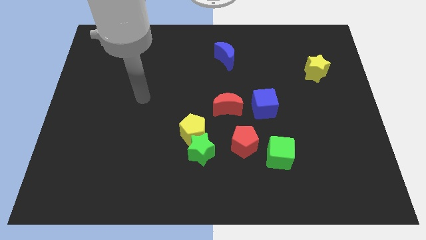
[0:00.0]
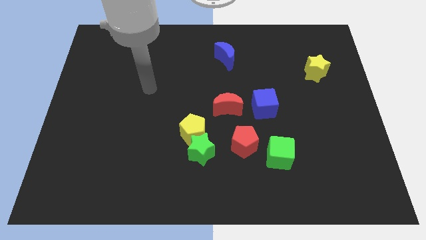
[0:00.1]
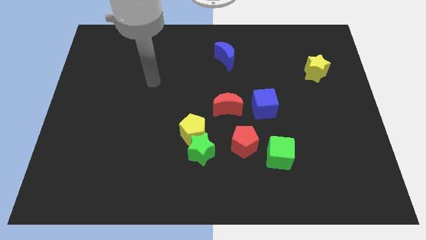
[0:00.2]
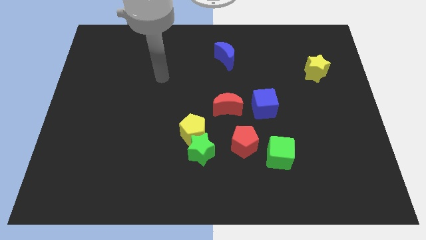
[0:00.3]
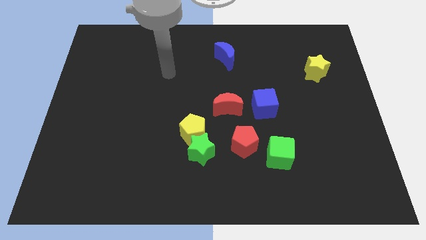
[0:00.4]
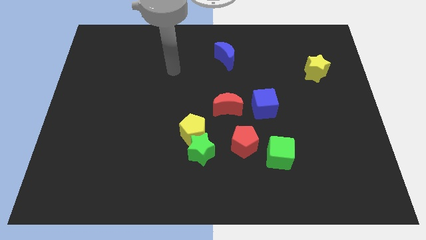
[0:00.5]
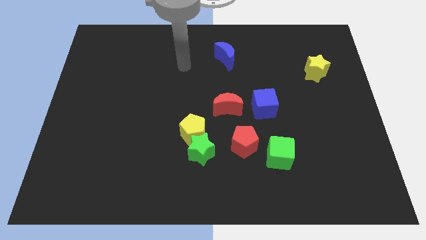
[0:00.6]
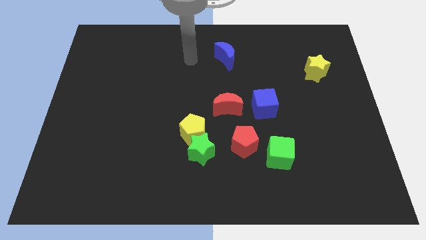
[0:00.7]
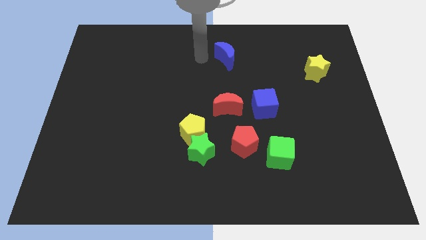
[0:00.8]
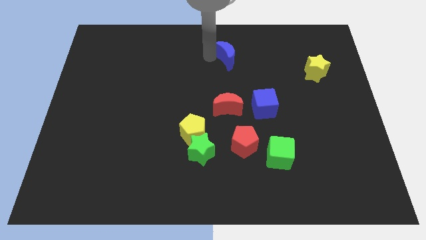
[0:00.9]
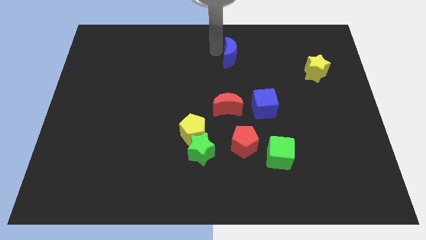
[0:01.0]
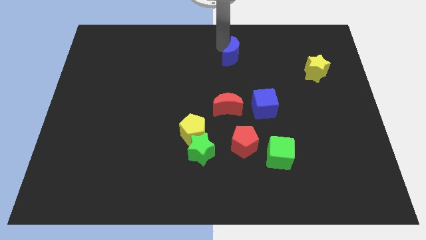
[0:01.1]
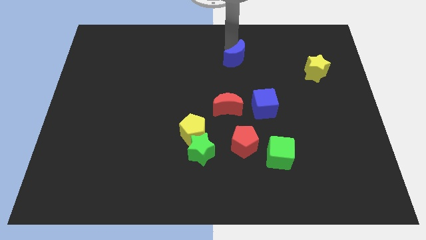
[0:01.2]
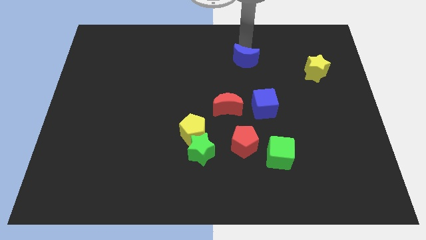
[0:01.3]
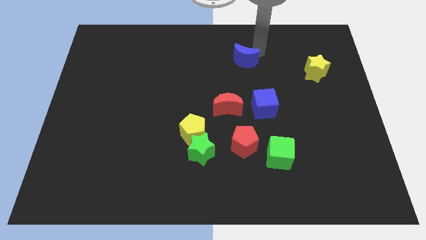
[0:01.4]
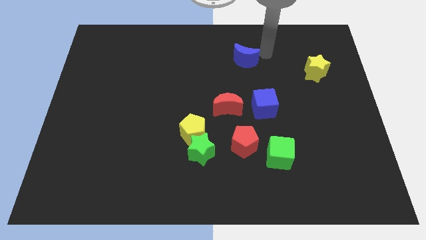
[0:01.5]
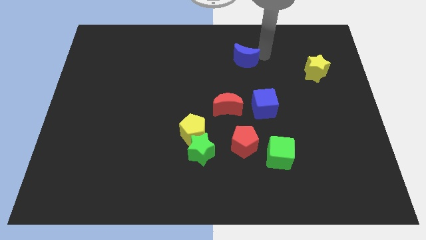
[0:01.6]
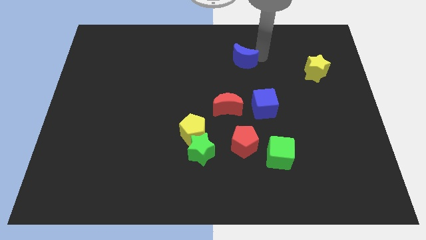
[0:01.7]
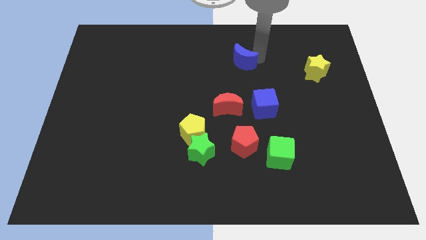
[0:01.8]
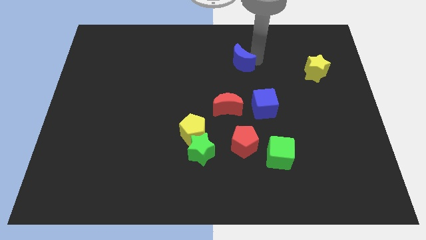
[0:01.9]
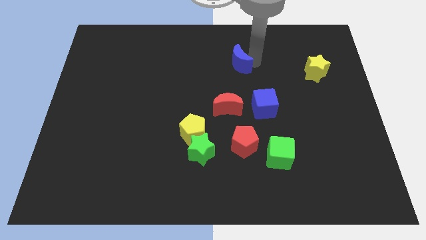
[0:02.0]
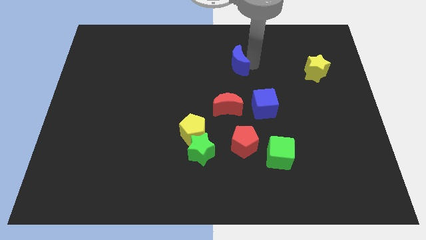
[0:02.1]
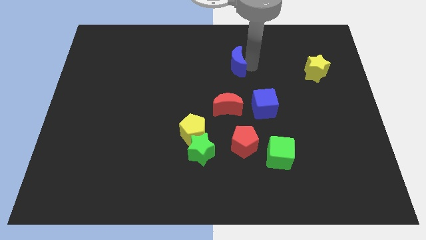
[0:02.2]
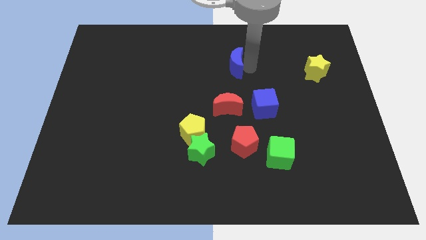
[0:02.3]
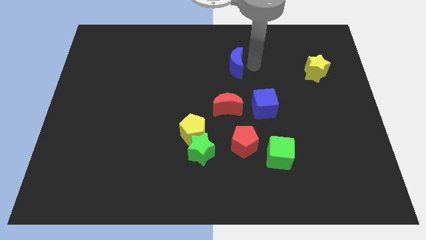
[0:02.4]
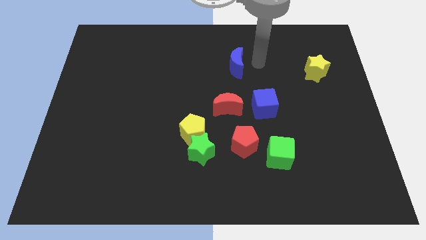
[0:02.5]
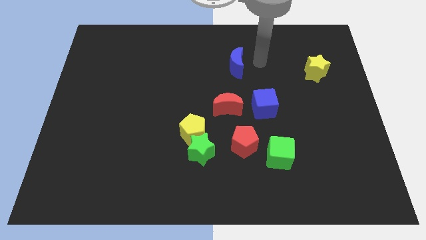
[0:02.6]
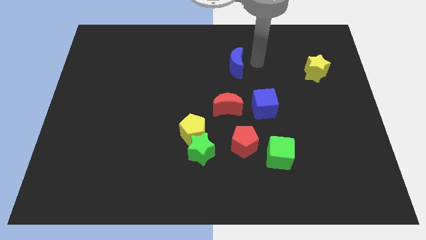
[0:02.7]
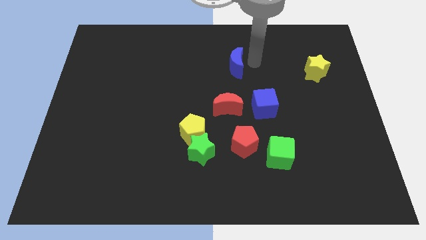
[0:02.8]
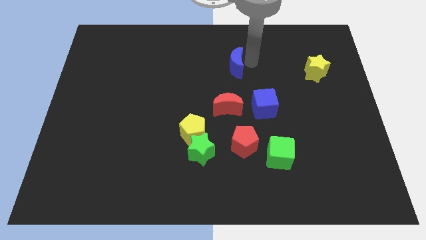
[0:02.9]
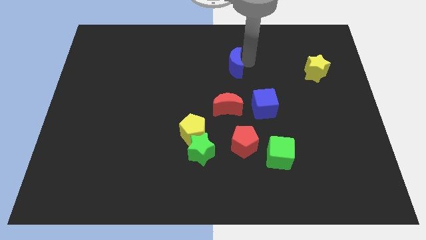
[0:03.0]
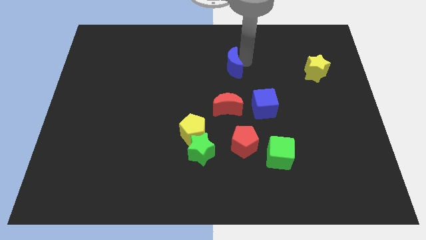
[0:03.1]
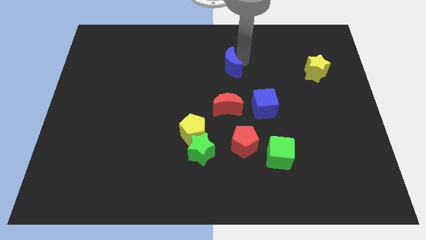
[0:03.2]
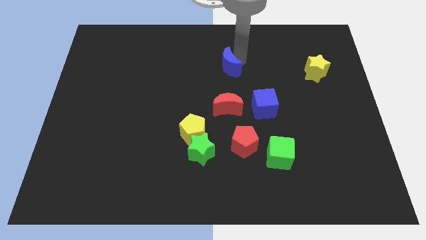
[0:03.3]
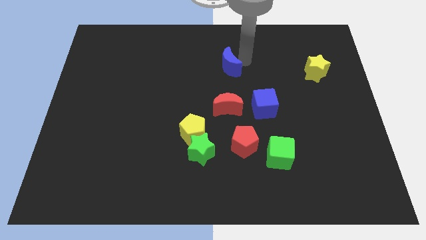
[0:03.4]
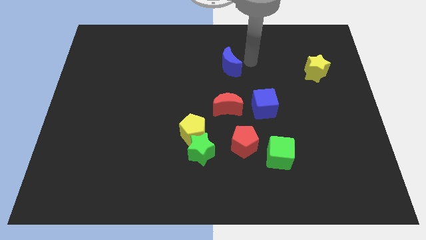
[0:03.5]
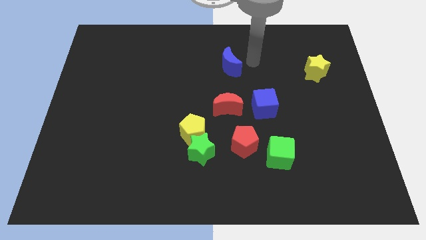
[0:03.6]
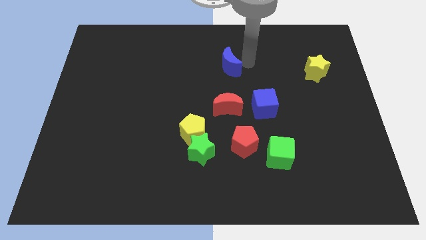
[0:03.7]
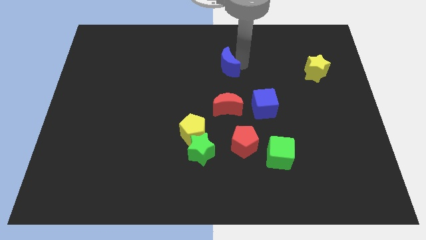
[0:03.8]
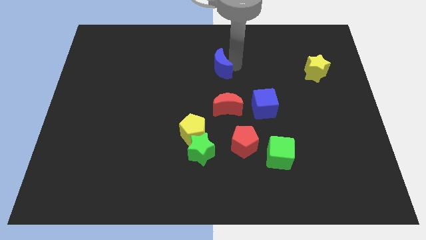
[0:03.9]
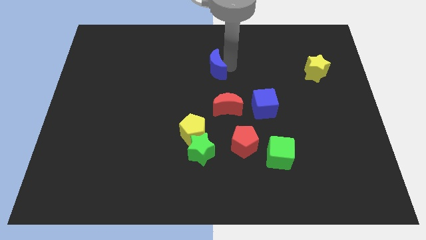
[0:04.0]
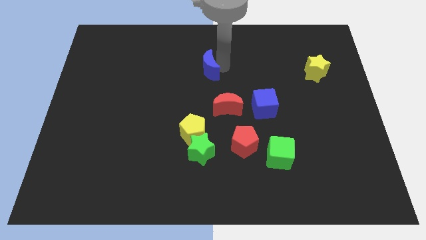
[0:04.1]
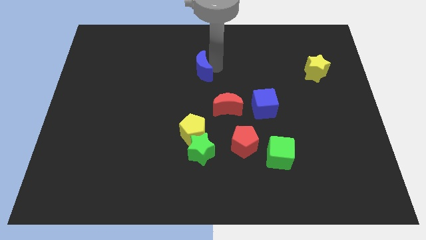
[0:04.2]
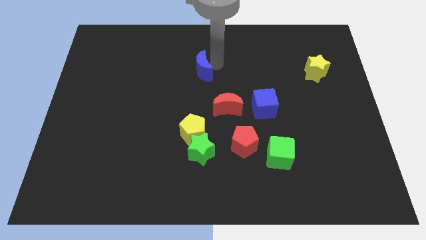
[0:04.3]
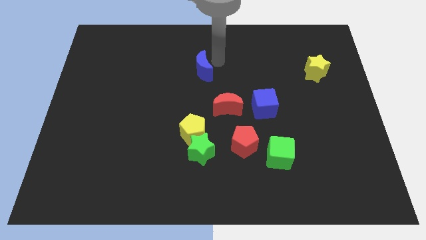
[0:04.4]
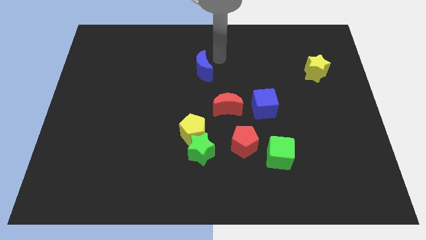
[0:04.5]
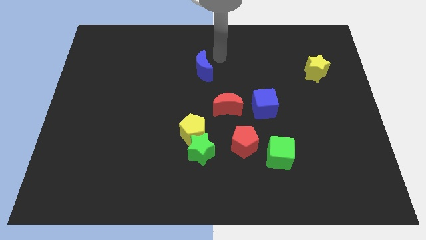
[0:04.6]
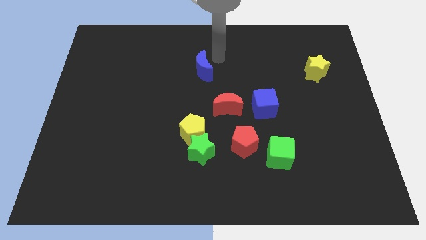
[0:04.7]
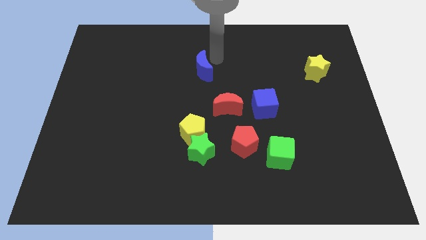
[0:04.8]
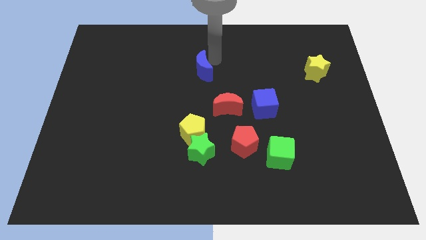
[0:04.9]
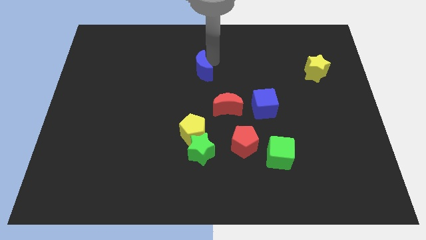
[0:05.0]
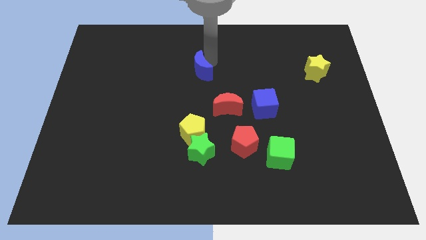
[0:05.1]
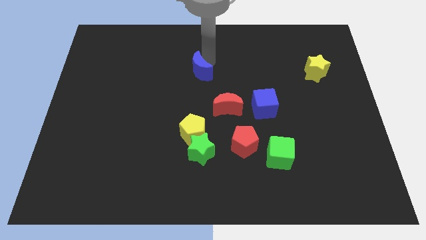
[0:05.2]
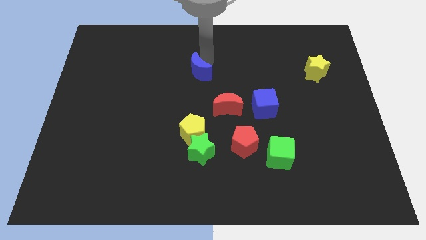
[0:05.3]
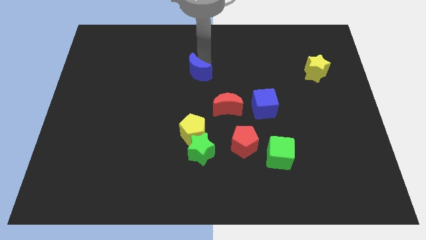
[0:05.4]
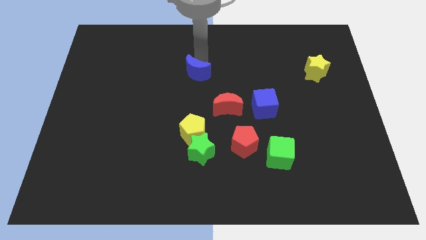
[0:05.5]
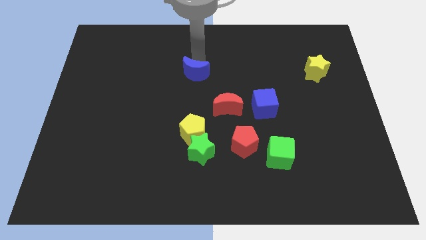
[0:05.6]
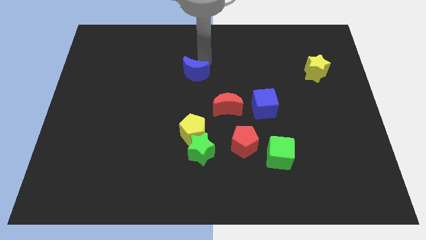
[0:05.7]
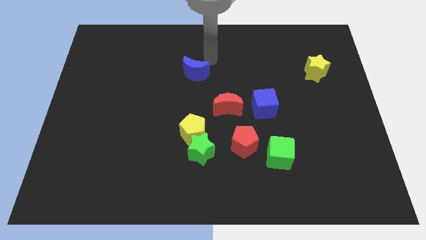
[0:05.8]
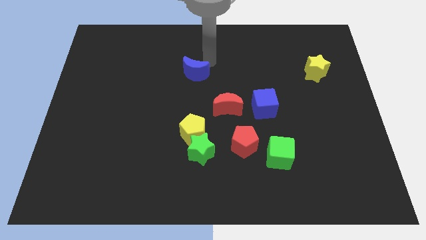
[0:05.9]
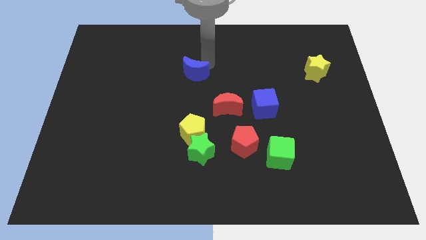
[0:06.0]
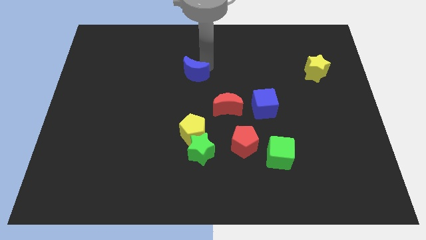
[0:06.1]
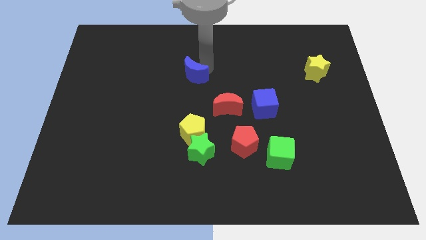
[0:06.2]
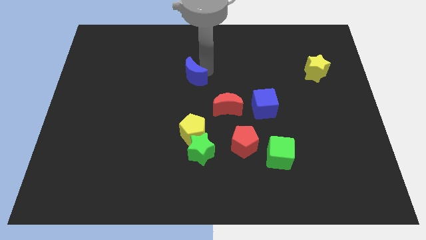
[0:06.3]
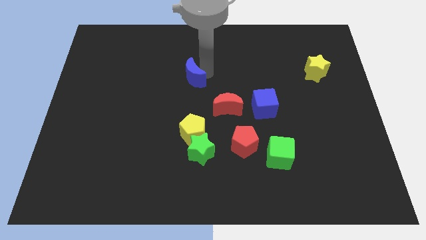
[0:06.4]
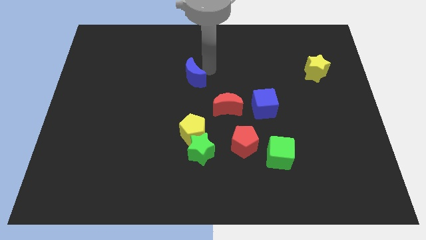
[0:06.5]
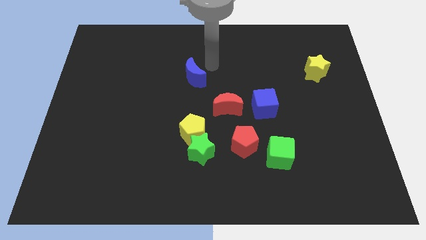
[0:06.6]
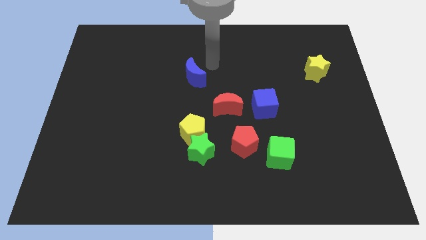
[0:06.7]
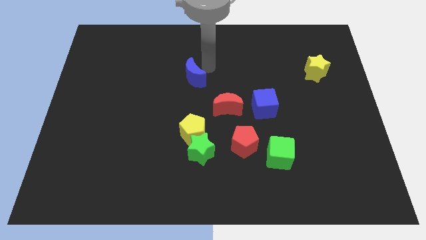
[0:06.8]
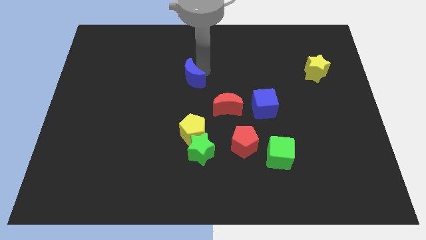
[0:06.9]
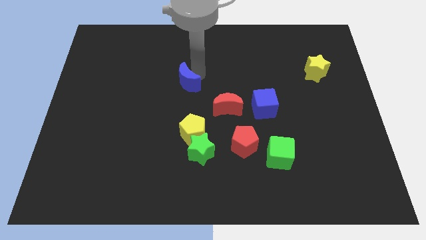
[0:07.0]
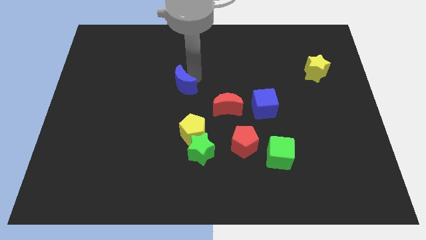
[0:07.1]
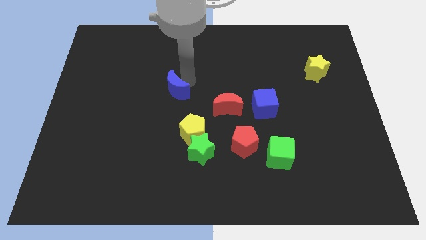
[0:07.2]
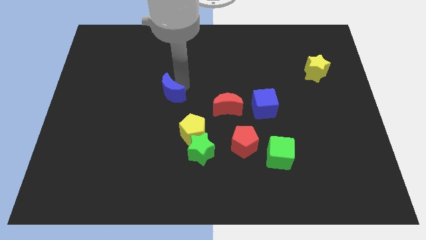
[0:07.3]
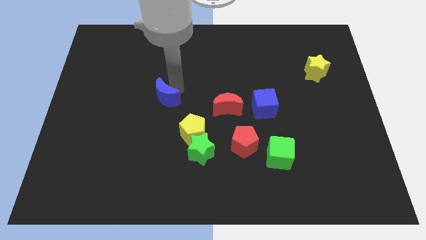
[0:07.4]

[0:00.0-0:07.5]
slide the blue moon downwards and then to the left

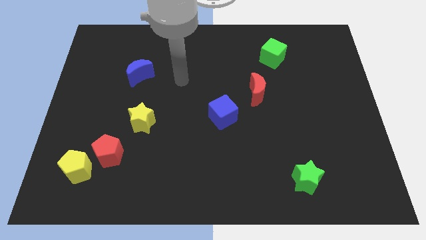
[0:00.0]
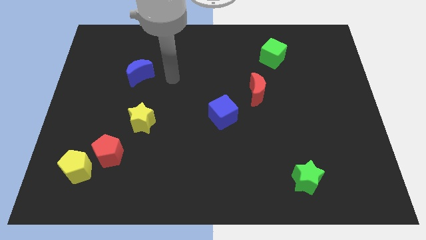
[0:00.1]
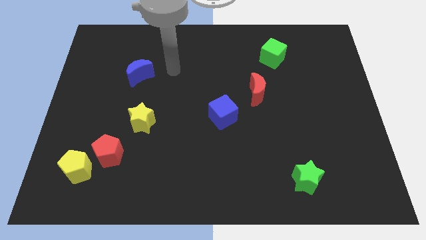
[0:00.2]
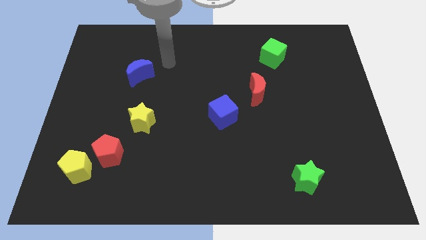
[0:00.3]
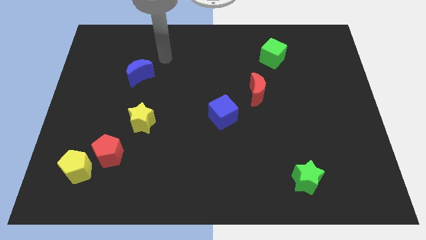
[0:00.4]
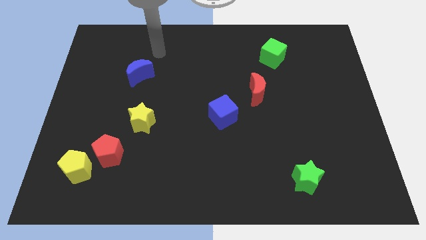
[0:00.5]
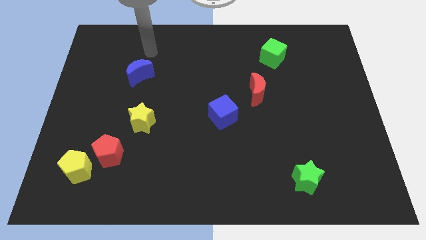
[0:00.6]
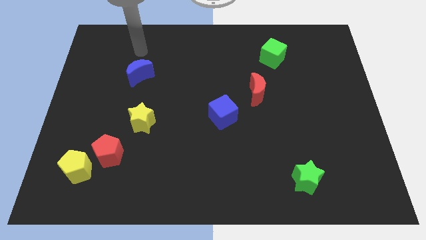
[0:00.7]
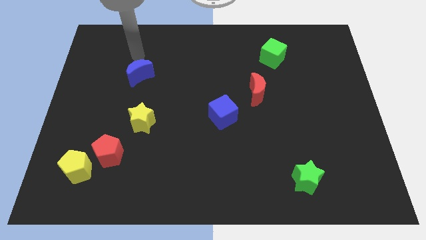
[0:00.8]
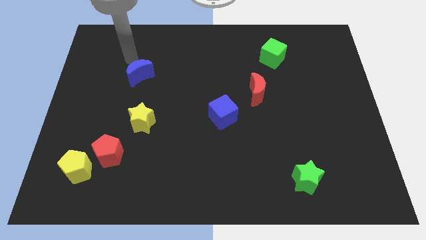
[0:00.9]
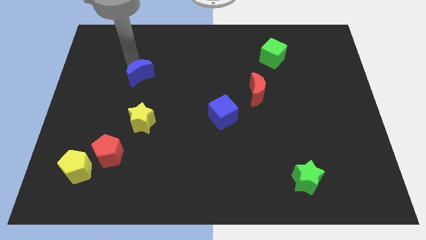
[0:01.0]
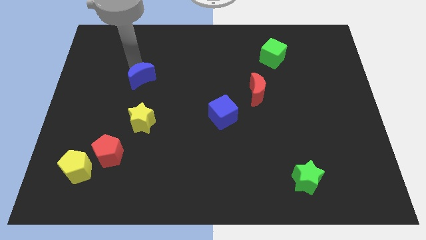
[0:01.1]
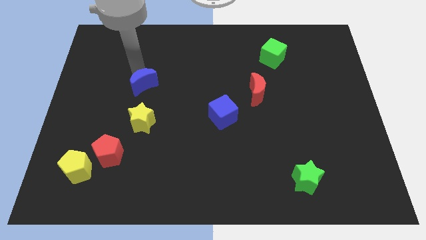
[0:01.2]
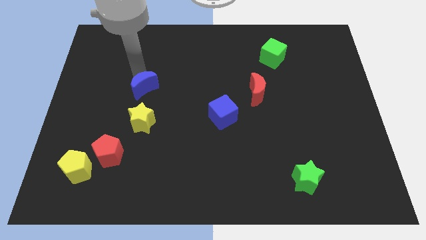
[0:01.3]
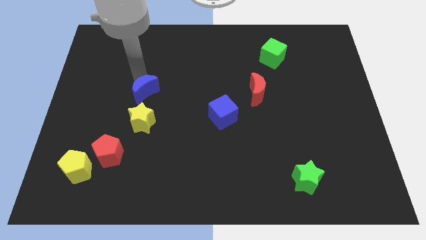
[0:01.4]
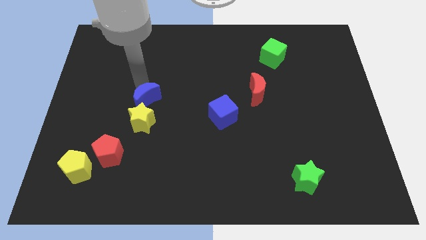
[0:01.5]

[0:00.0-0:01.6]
slightly slide the blue moon down
